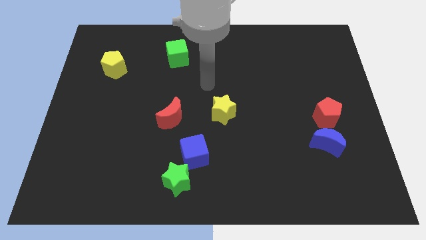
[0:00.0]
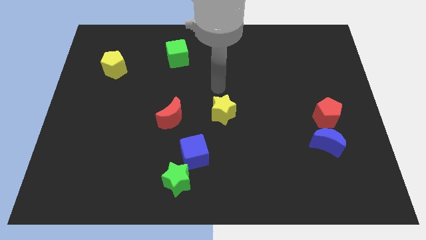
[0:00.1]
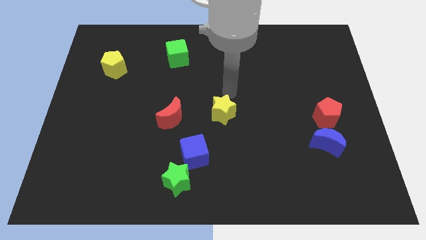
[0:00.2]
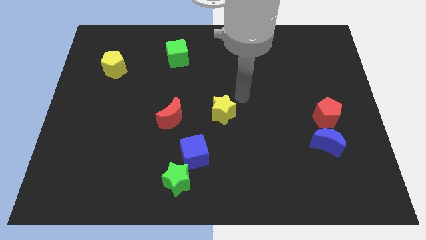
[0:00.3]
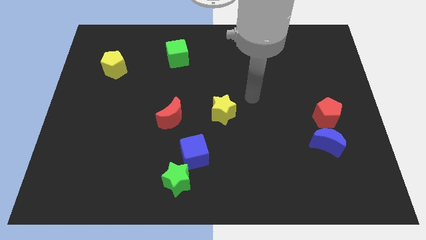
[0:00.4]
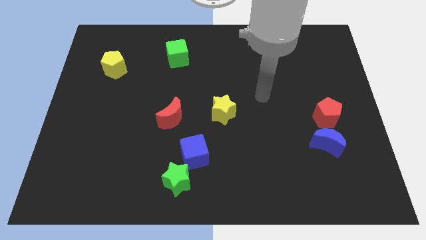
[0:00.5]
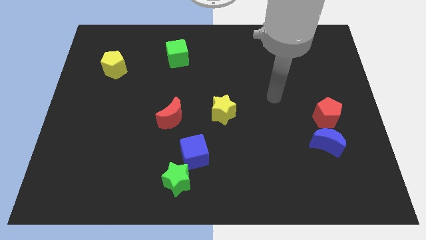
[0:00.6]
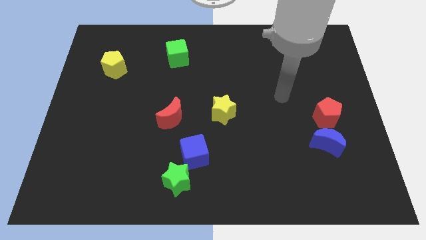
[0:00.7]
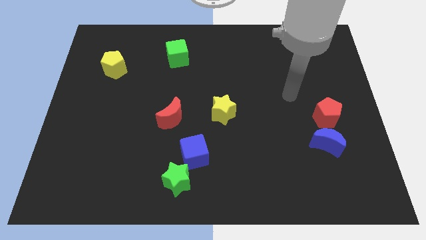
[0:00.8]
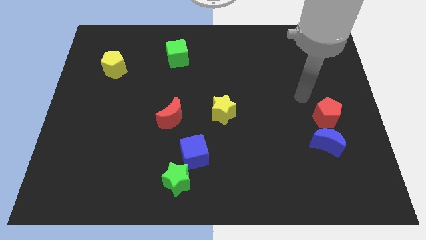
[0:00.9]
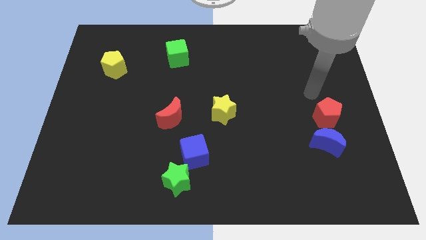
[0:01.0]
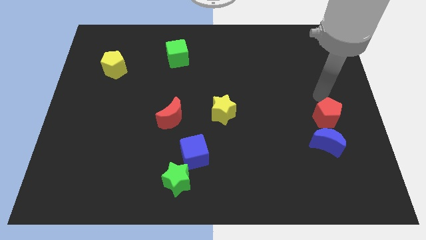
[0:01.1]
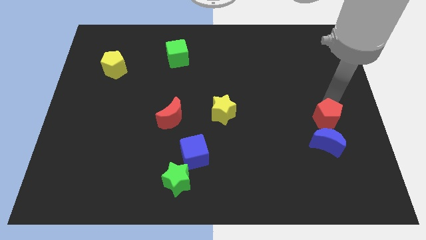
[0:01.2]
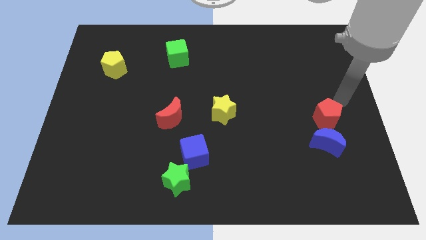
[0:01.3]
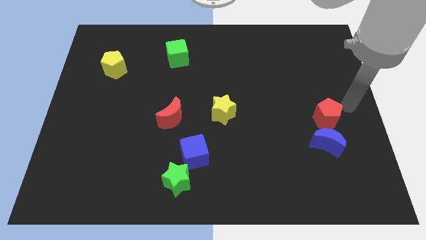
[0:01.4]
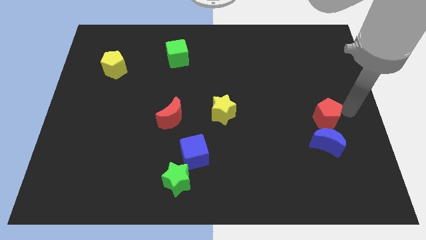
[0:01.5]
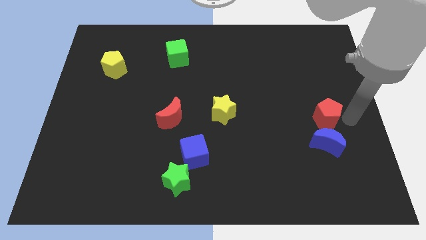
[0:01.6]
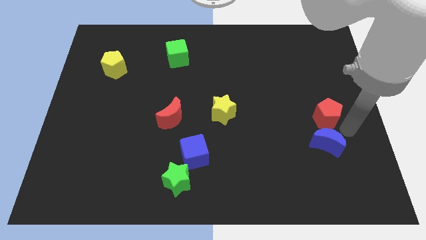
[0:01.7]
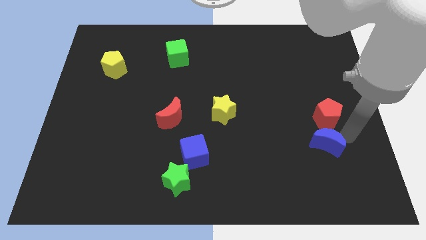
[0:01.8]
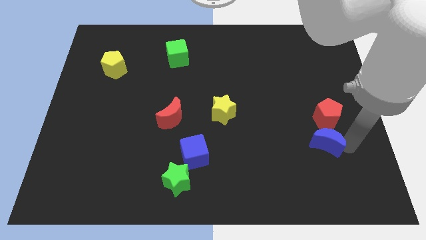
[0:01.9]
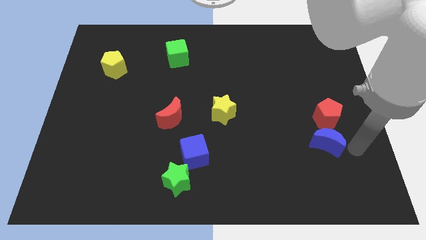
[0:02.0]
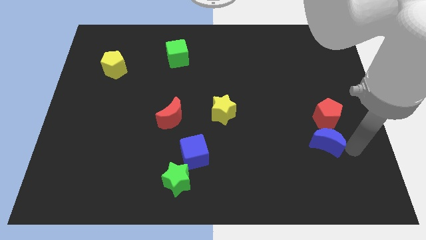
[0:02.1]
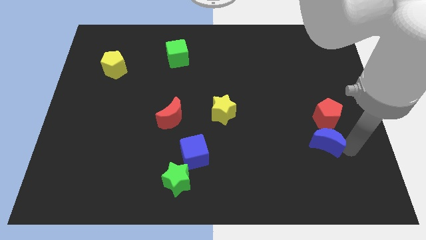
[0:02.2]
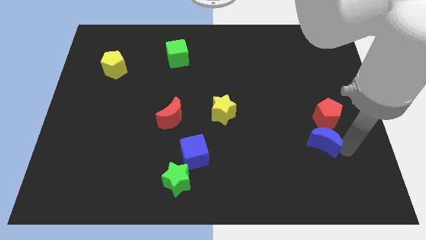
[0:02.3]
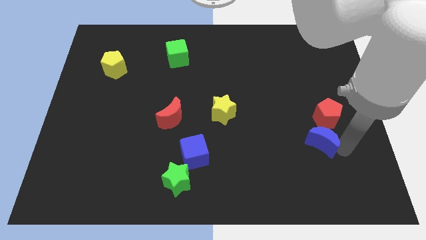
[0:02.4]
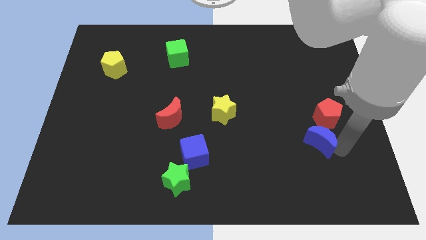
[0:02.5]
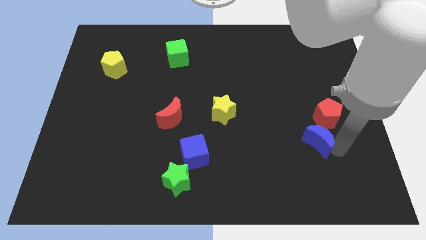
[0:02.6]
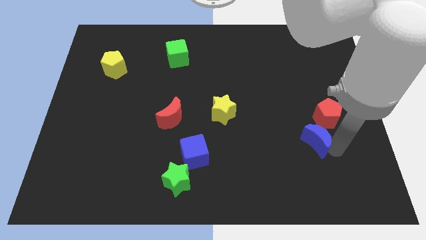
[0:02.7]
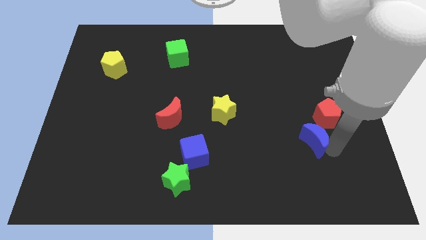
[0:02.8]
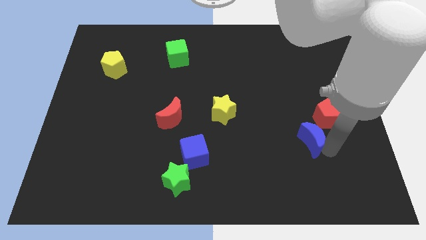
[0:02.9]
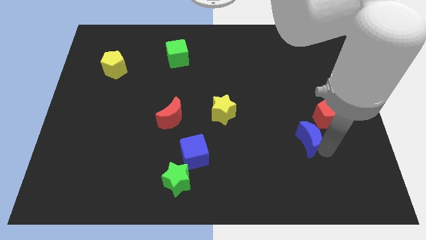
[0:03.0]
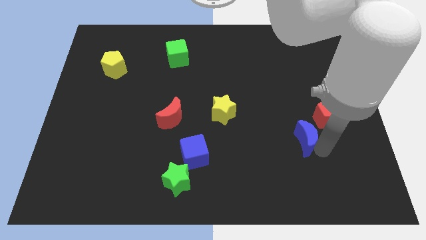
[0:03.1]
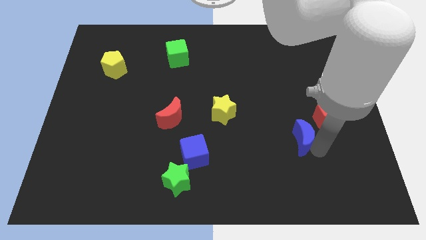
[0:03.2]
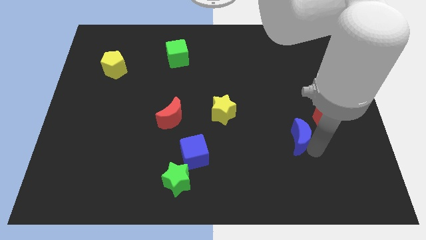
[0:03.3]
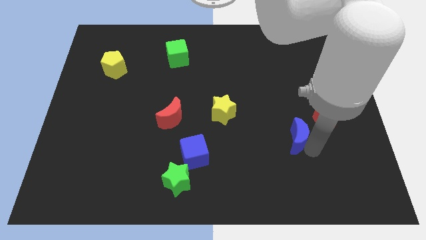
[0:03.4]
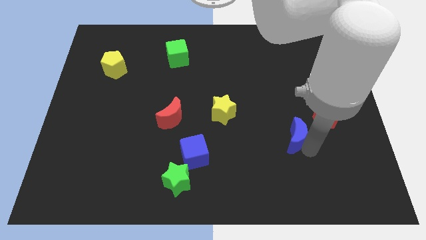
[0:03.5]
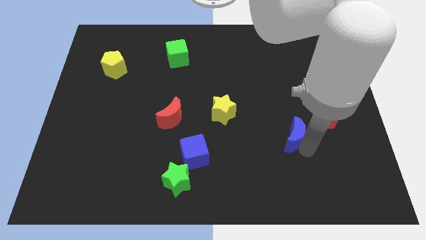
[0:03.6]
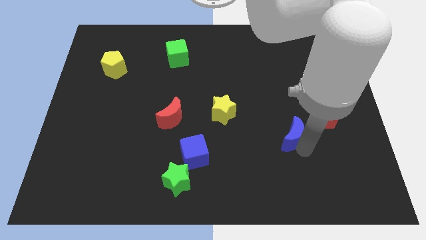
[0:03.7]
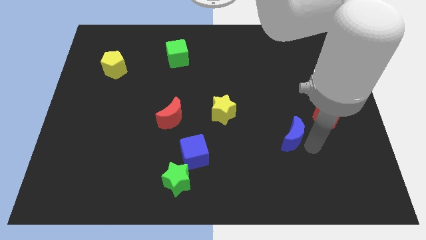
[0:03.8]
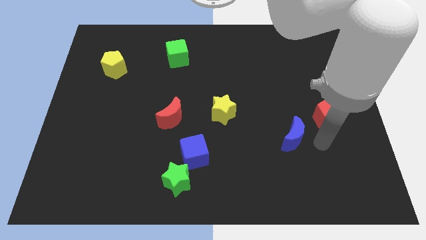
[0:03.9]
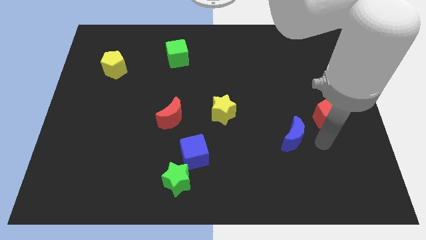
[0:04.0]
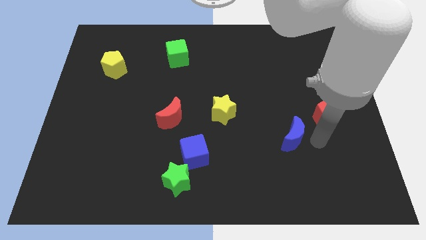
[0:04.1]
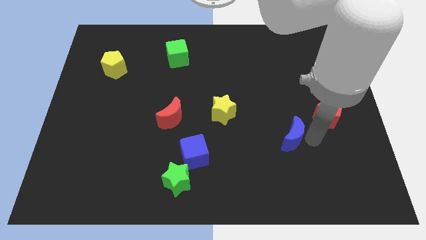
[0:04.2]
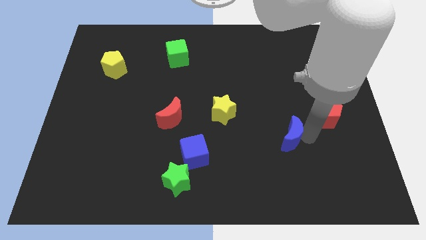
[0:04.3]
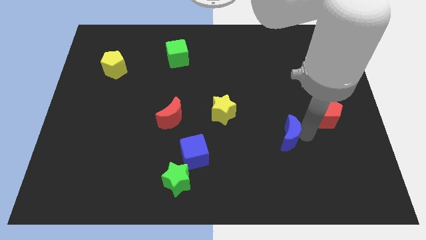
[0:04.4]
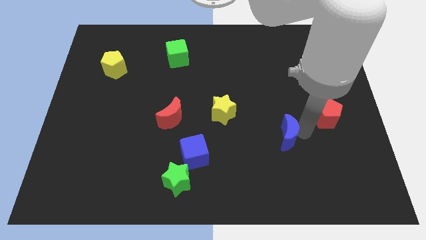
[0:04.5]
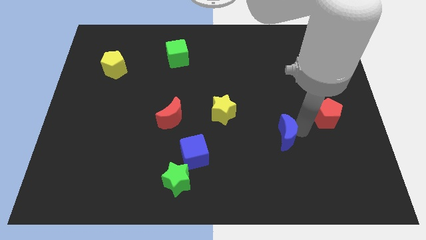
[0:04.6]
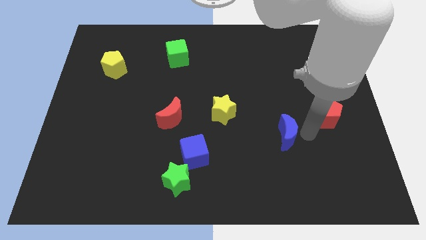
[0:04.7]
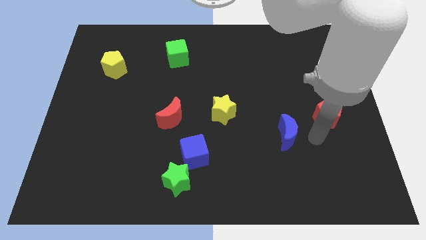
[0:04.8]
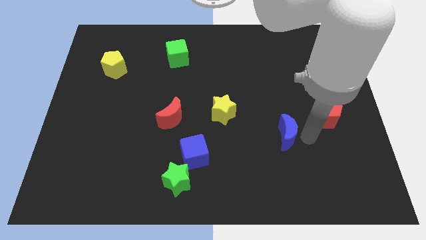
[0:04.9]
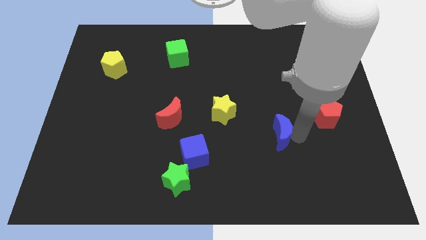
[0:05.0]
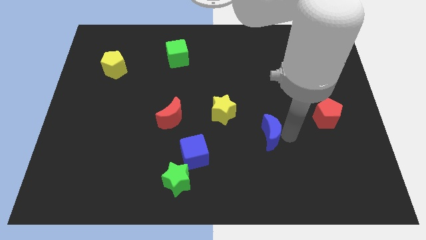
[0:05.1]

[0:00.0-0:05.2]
put the blue moon to the bottom right of the yellow star

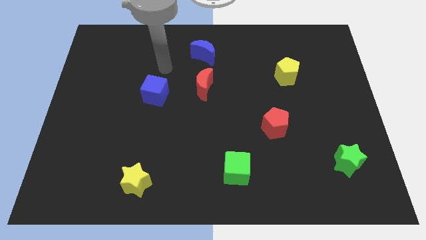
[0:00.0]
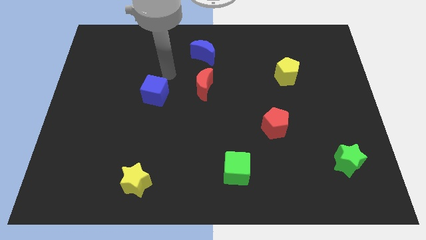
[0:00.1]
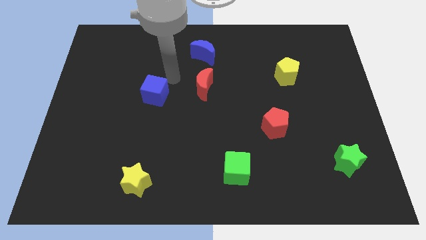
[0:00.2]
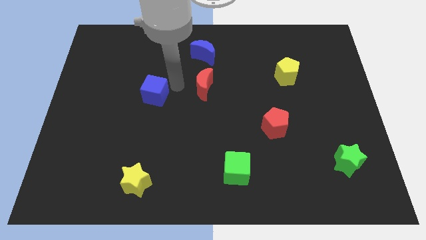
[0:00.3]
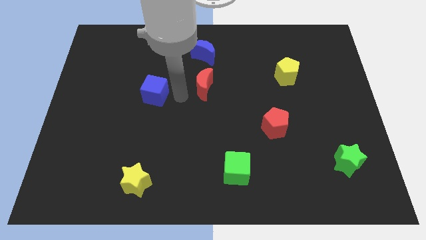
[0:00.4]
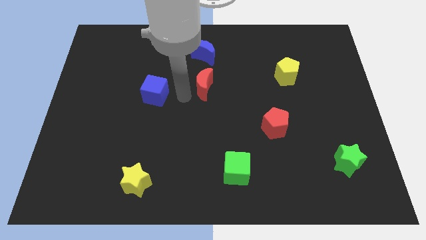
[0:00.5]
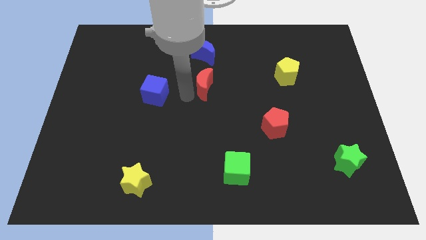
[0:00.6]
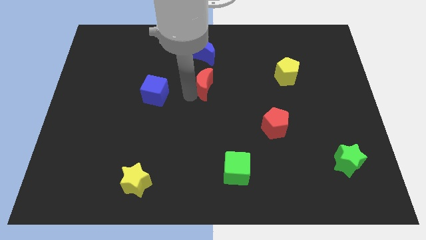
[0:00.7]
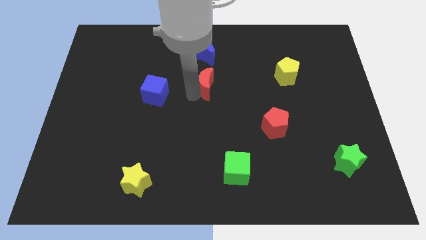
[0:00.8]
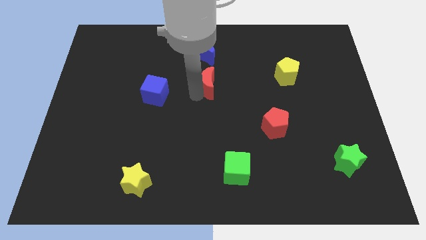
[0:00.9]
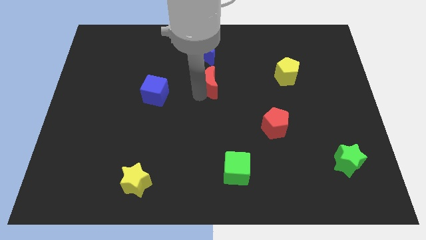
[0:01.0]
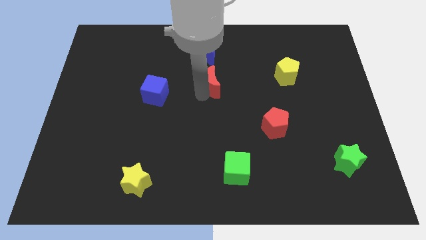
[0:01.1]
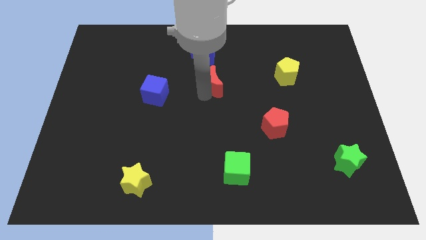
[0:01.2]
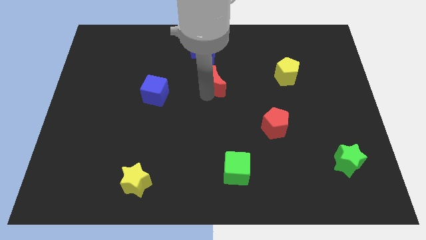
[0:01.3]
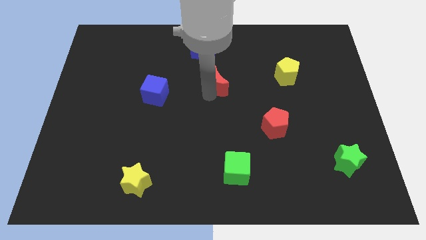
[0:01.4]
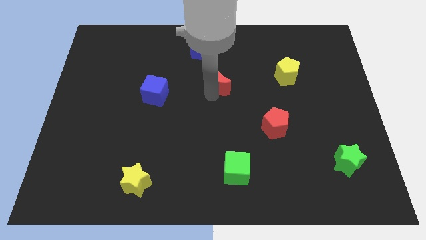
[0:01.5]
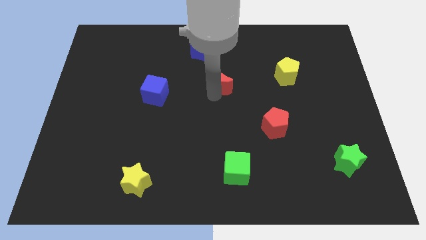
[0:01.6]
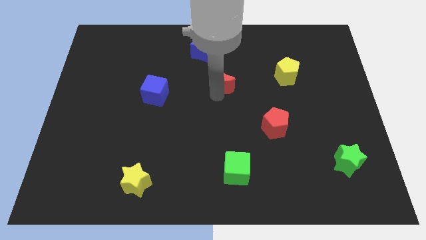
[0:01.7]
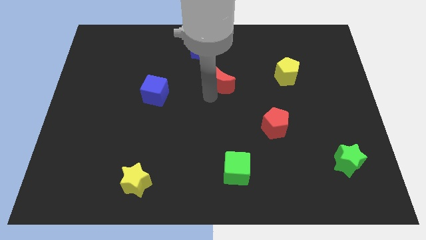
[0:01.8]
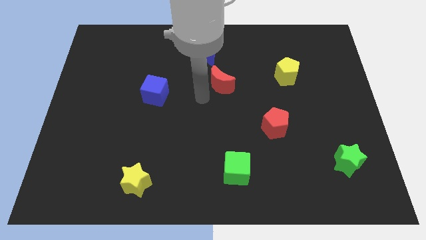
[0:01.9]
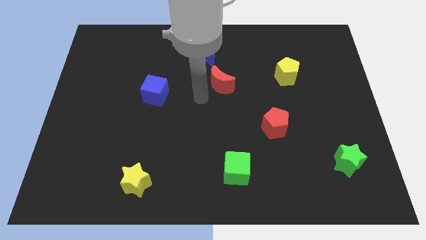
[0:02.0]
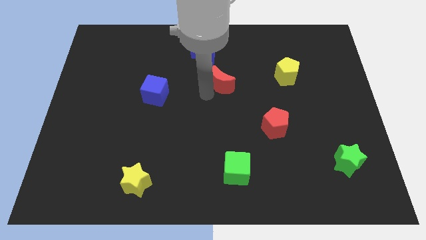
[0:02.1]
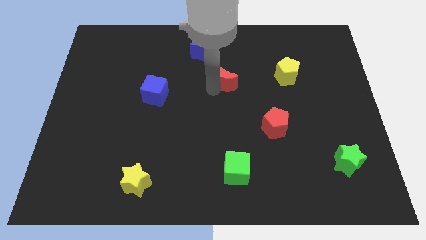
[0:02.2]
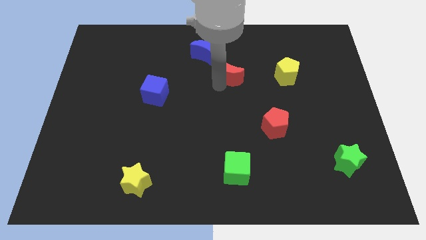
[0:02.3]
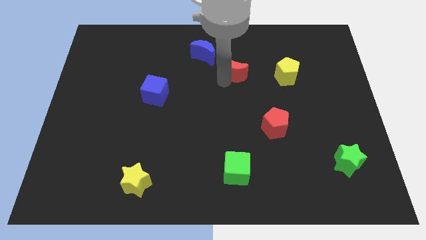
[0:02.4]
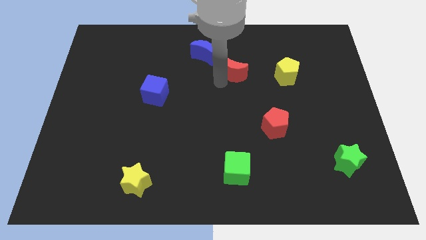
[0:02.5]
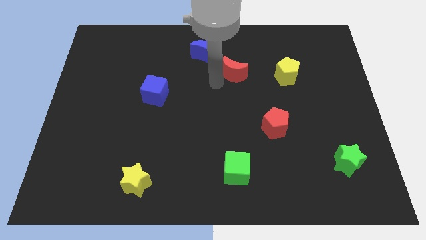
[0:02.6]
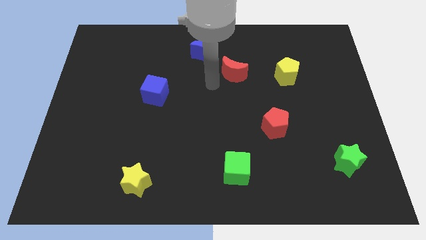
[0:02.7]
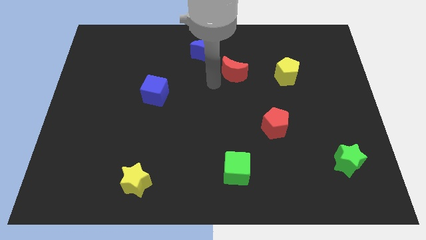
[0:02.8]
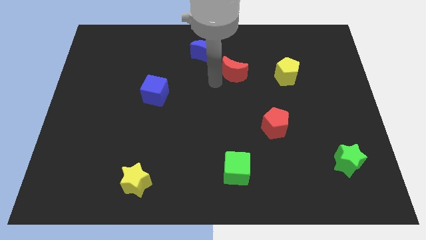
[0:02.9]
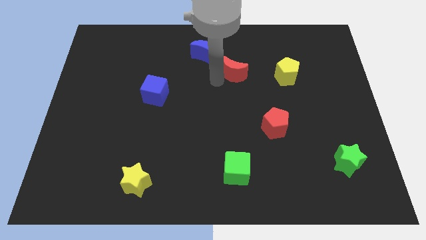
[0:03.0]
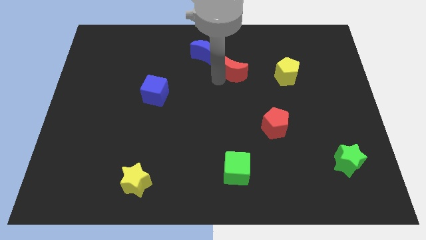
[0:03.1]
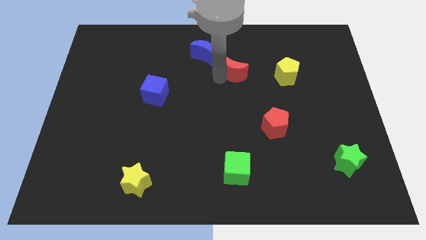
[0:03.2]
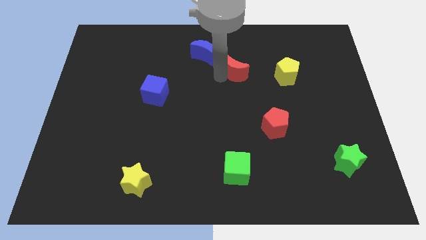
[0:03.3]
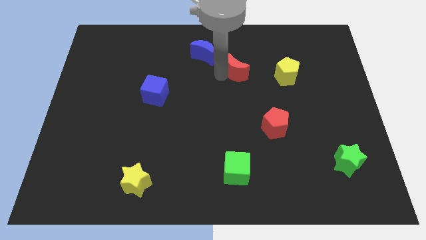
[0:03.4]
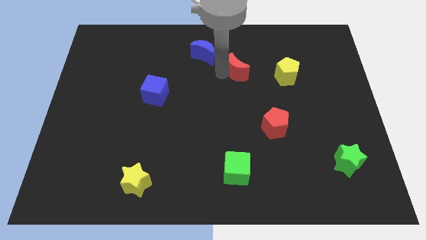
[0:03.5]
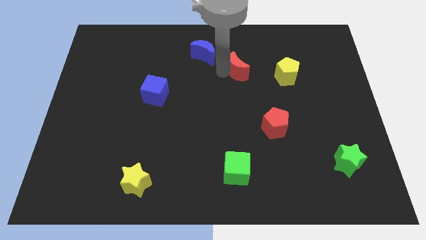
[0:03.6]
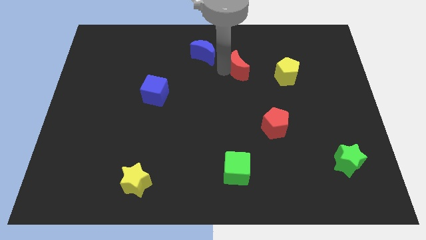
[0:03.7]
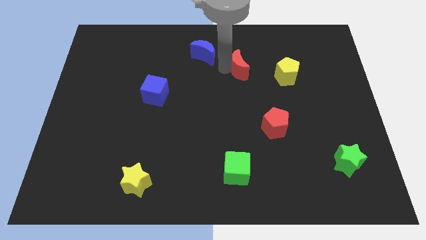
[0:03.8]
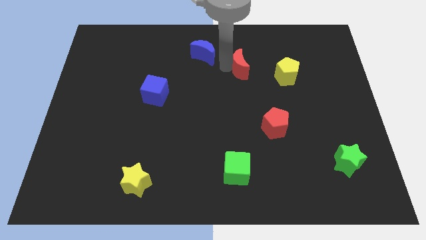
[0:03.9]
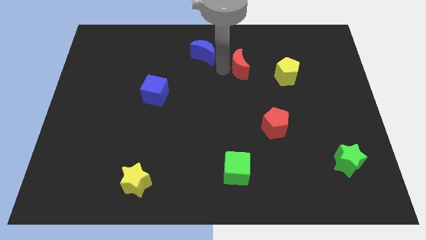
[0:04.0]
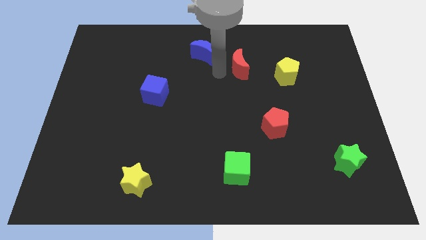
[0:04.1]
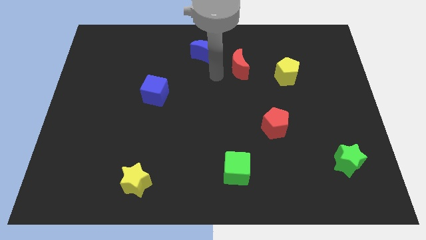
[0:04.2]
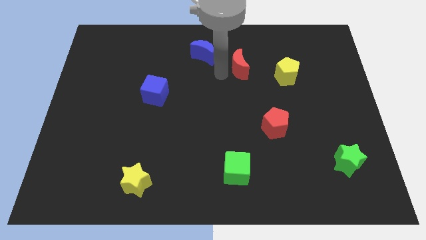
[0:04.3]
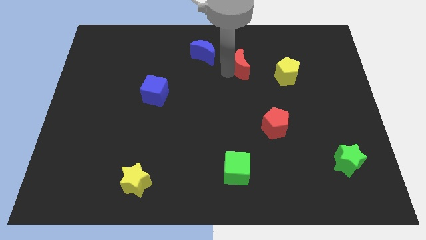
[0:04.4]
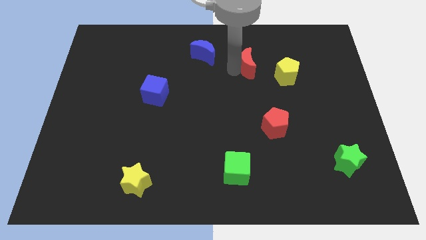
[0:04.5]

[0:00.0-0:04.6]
move the red moon to the top left of the yellow pentagon
